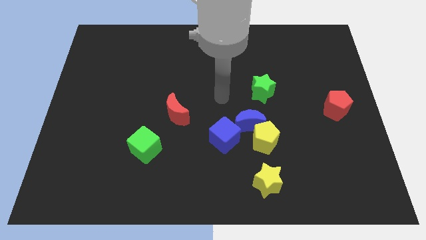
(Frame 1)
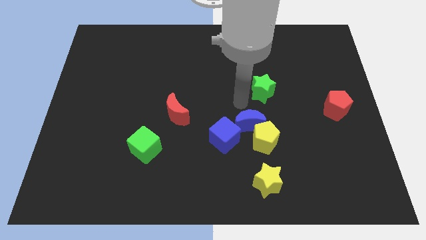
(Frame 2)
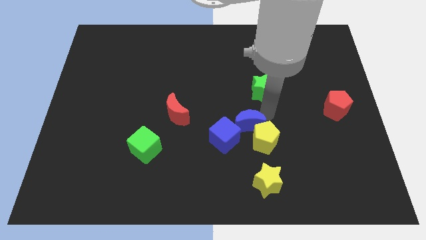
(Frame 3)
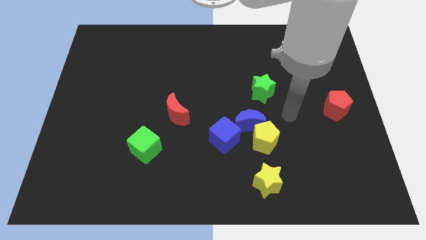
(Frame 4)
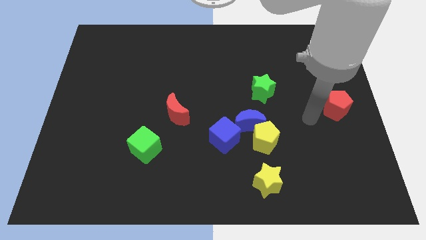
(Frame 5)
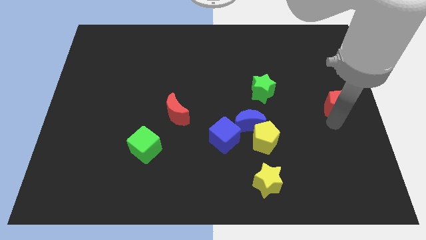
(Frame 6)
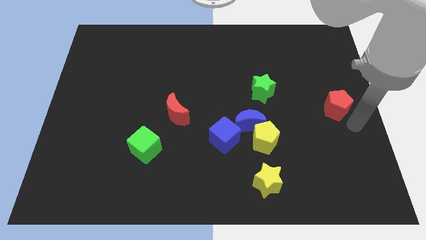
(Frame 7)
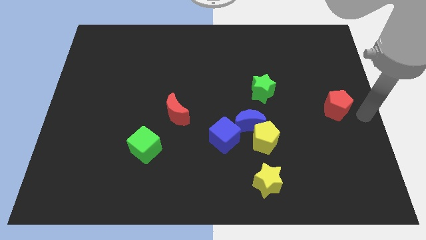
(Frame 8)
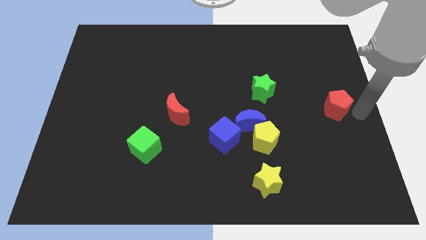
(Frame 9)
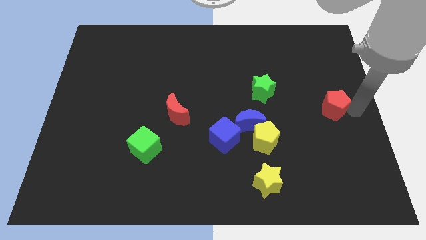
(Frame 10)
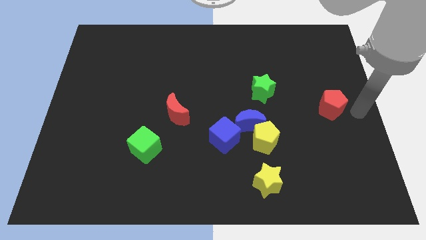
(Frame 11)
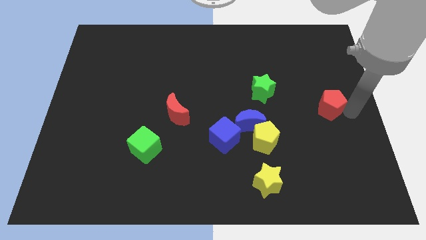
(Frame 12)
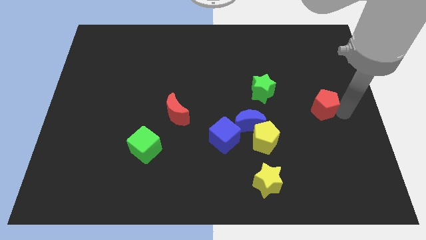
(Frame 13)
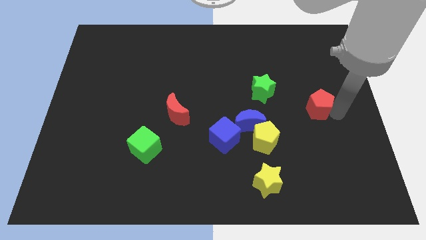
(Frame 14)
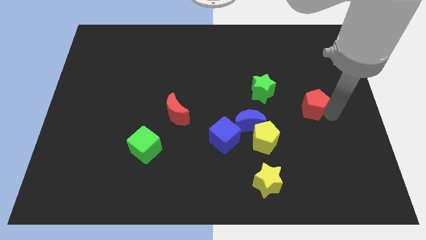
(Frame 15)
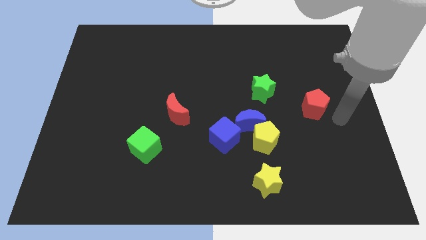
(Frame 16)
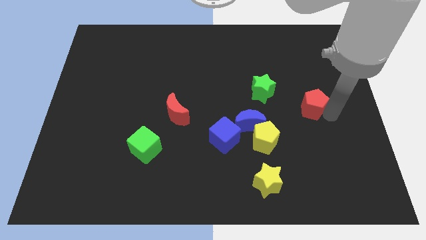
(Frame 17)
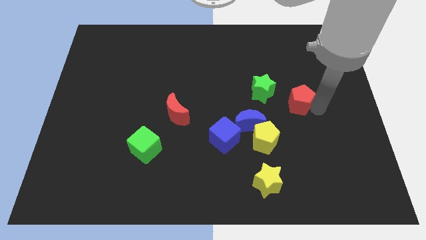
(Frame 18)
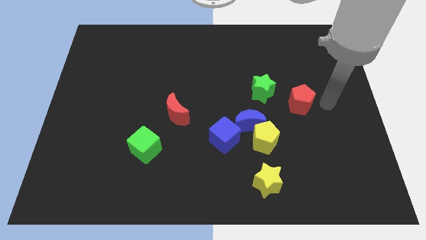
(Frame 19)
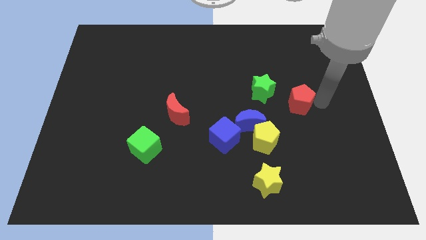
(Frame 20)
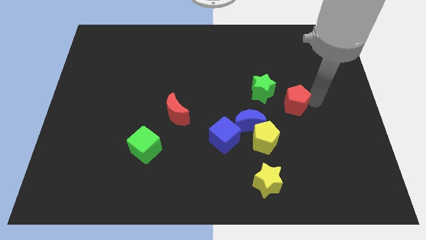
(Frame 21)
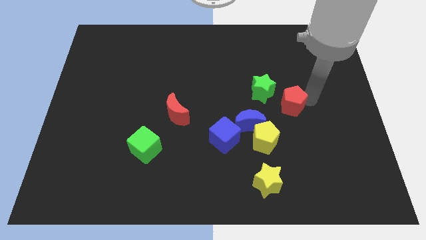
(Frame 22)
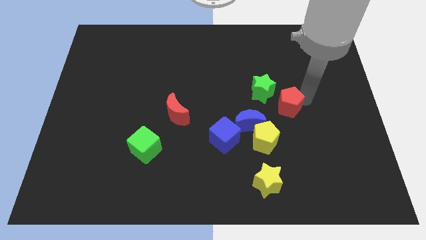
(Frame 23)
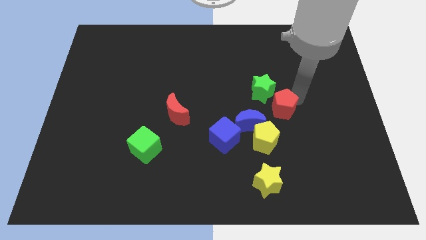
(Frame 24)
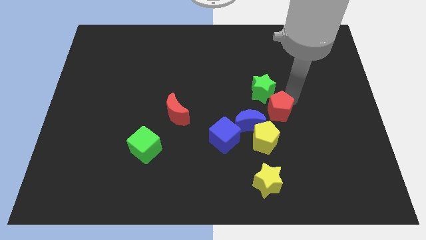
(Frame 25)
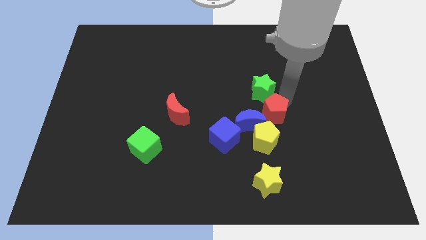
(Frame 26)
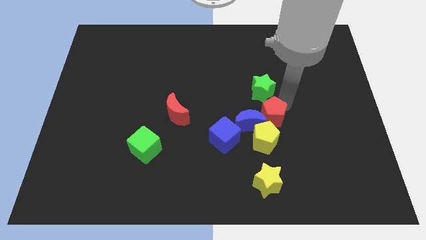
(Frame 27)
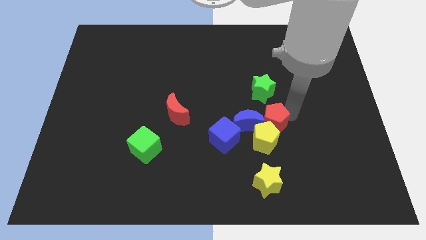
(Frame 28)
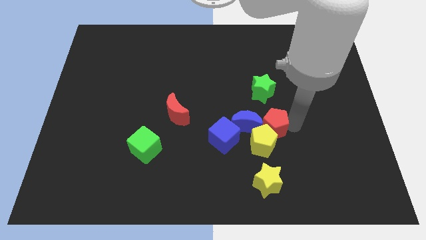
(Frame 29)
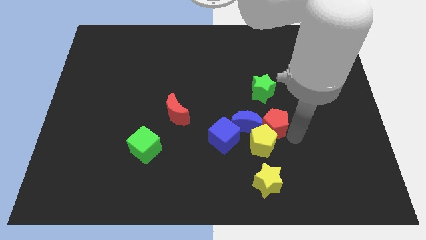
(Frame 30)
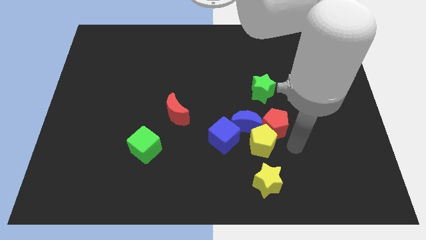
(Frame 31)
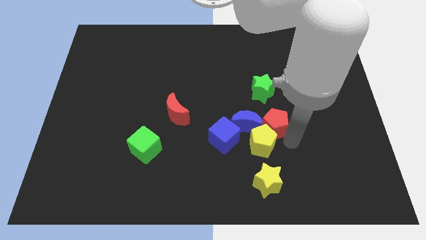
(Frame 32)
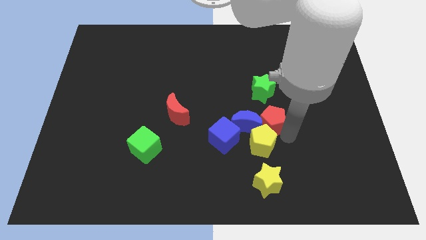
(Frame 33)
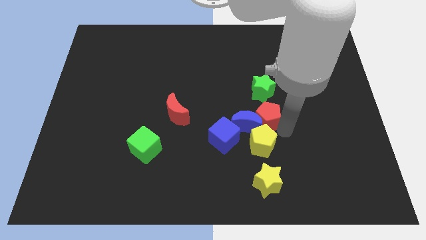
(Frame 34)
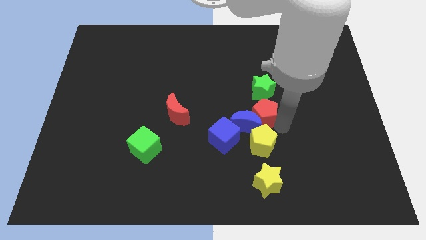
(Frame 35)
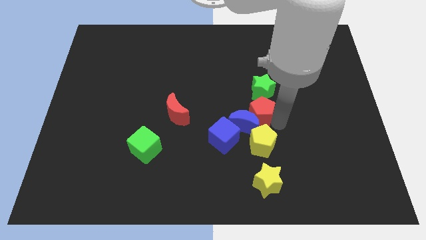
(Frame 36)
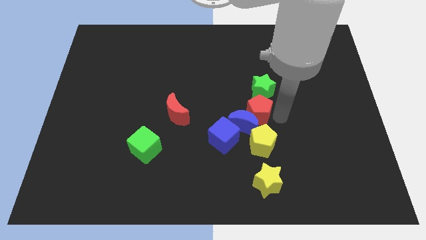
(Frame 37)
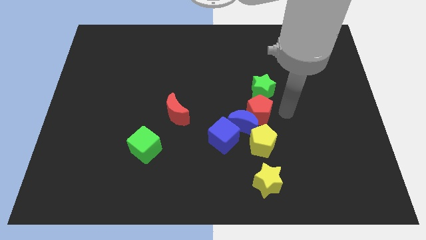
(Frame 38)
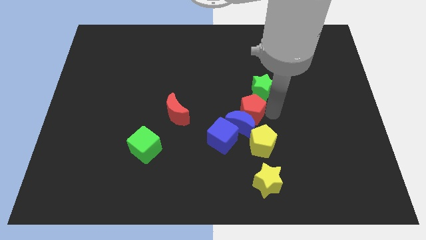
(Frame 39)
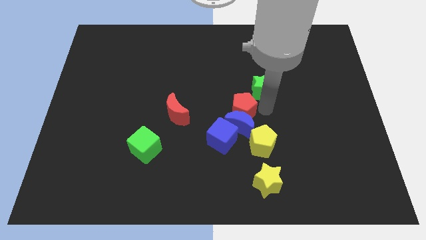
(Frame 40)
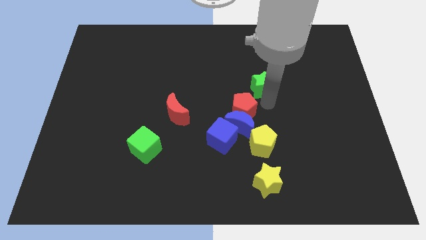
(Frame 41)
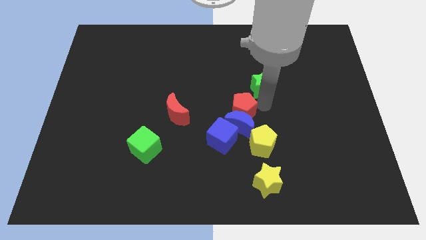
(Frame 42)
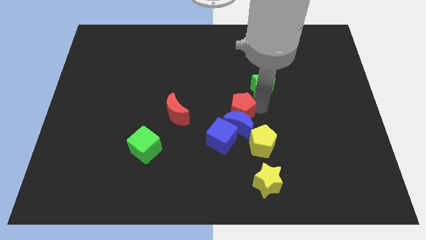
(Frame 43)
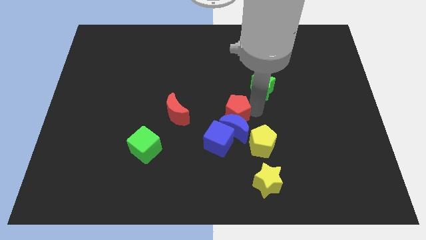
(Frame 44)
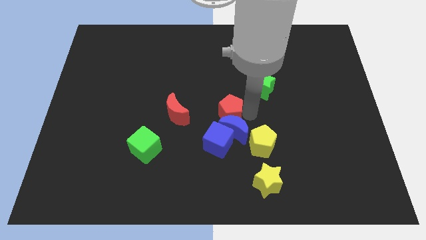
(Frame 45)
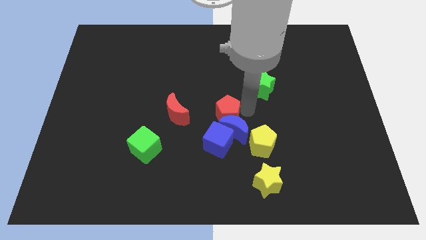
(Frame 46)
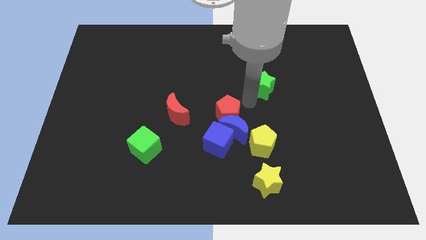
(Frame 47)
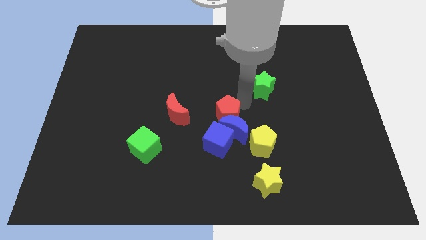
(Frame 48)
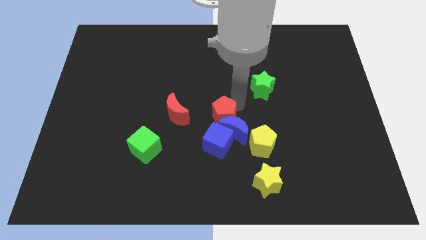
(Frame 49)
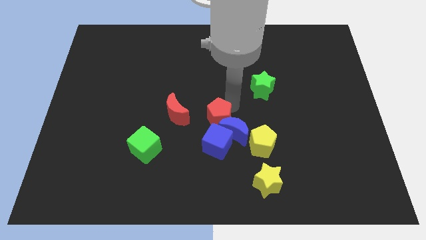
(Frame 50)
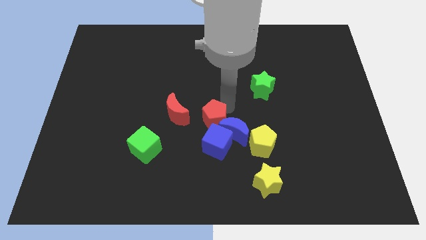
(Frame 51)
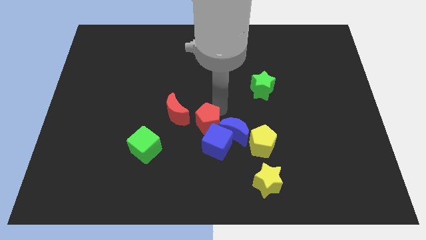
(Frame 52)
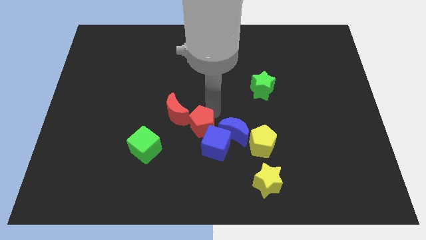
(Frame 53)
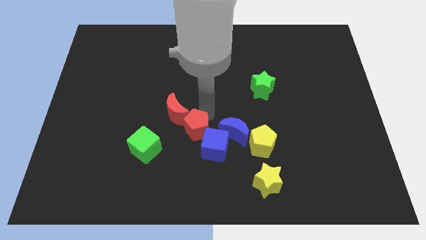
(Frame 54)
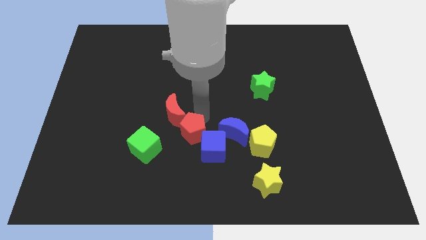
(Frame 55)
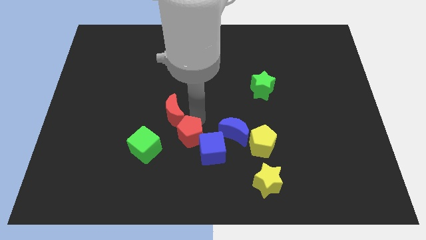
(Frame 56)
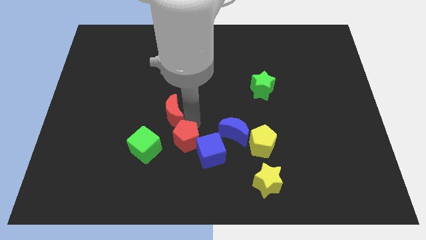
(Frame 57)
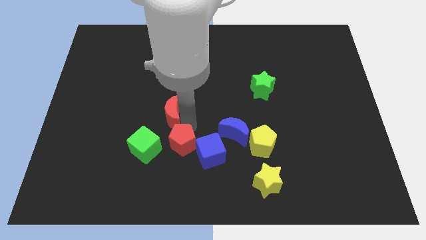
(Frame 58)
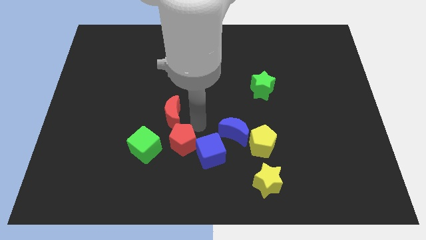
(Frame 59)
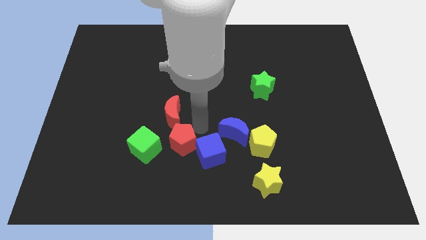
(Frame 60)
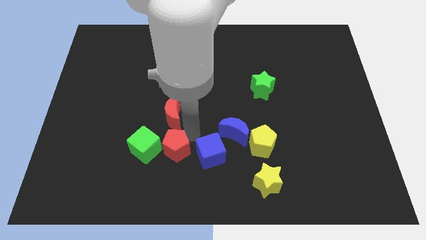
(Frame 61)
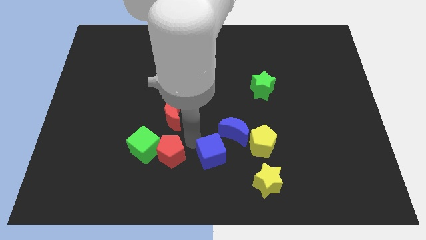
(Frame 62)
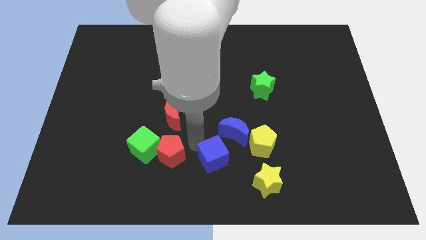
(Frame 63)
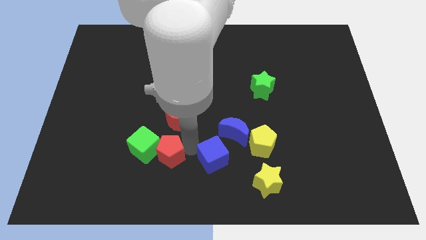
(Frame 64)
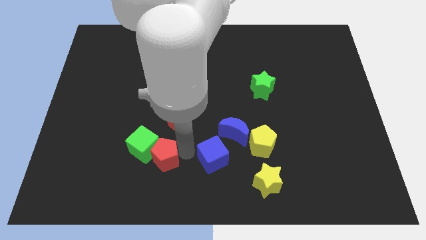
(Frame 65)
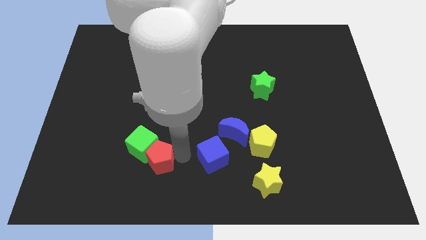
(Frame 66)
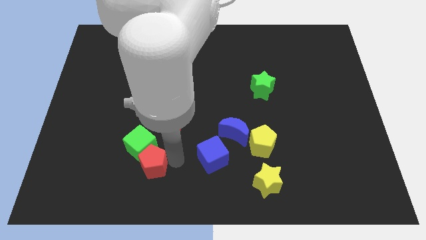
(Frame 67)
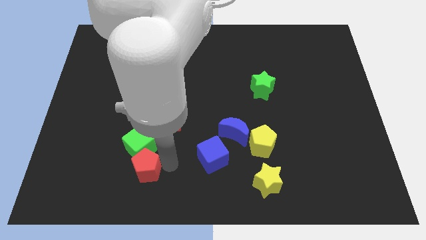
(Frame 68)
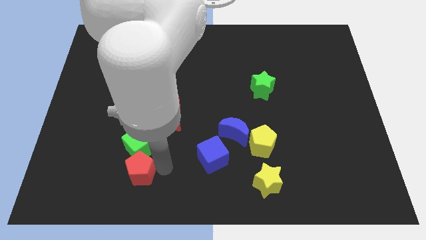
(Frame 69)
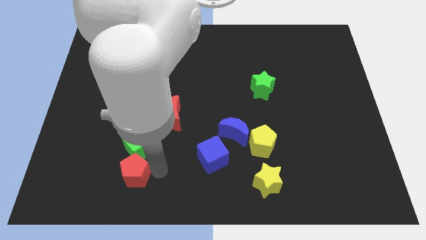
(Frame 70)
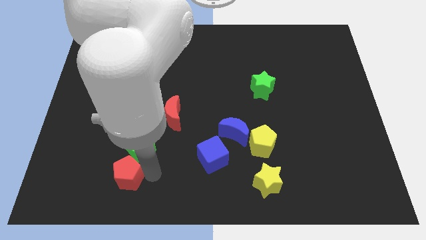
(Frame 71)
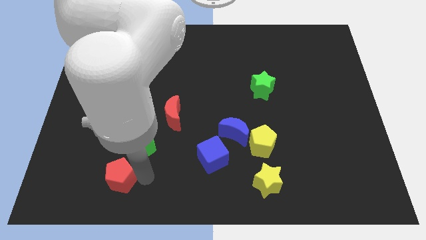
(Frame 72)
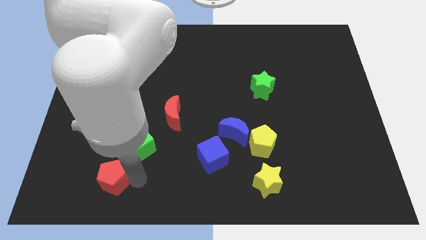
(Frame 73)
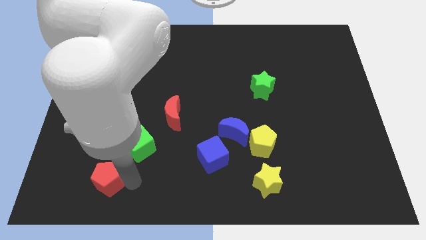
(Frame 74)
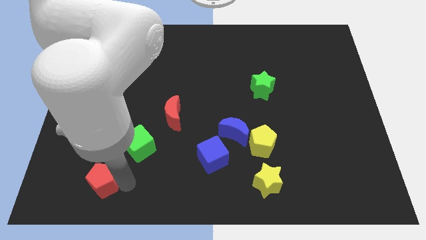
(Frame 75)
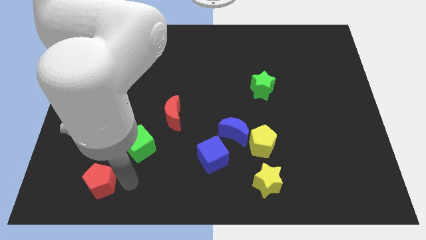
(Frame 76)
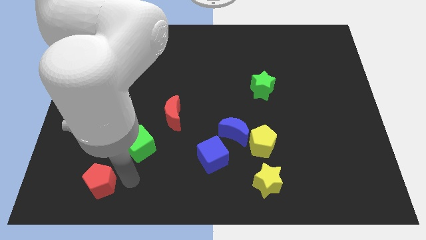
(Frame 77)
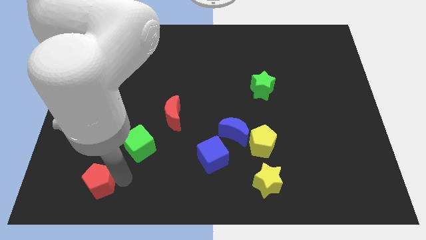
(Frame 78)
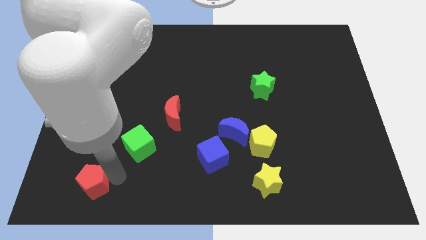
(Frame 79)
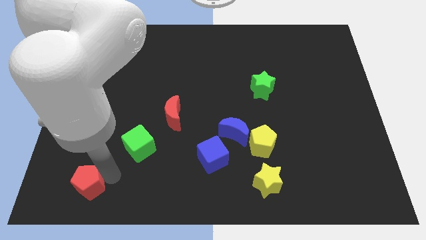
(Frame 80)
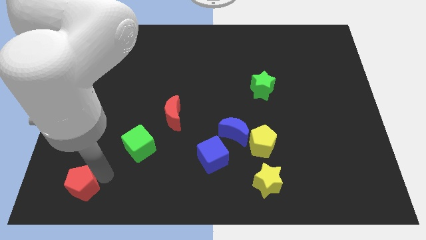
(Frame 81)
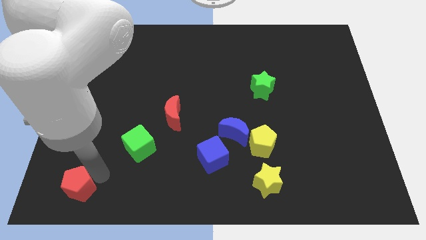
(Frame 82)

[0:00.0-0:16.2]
slide the red pentagon to the lower left corner
